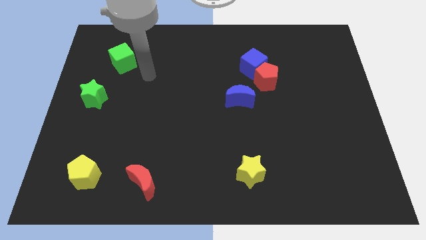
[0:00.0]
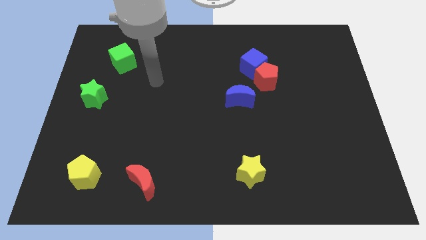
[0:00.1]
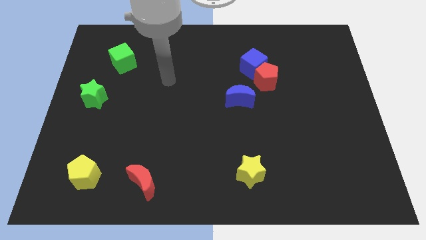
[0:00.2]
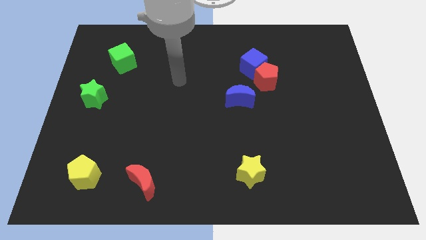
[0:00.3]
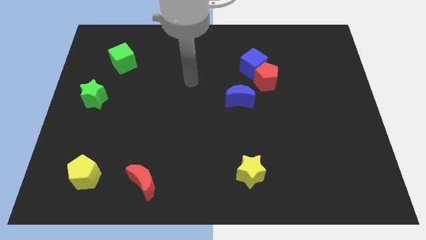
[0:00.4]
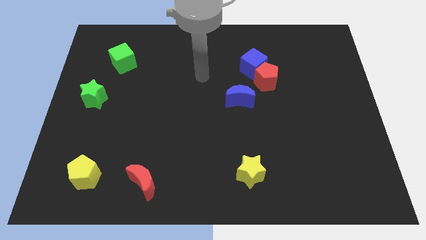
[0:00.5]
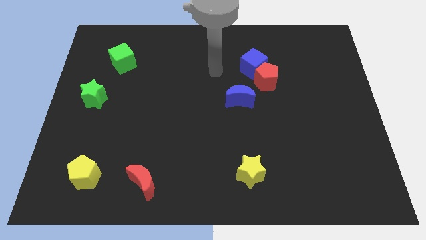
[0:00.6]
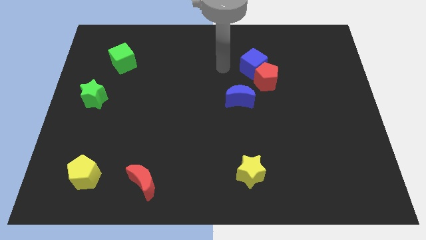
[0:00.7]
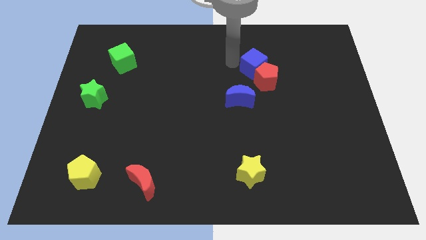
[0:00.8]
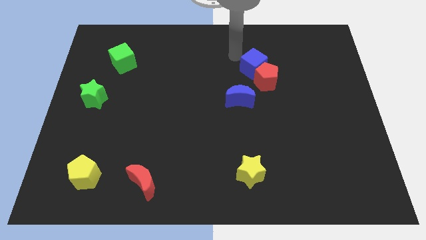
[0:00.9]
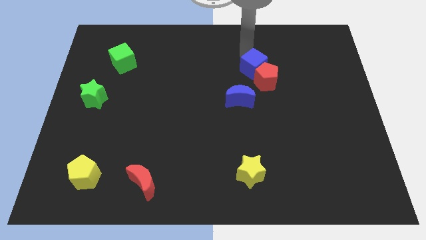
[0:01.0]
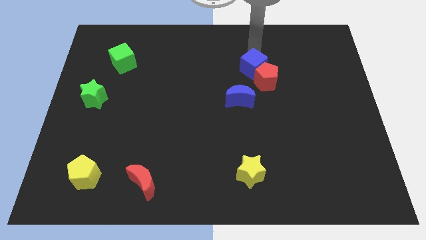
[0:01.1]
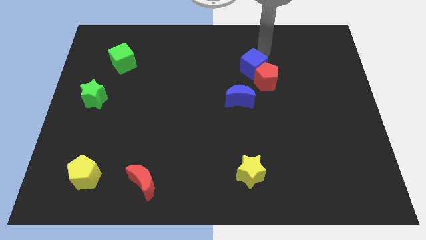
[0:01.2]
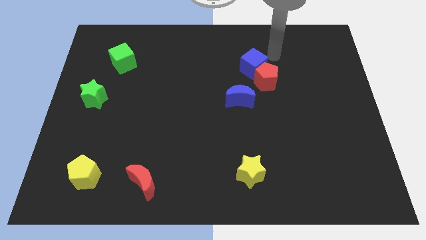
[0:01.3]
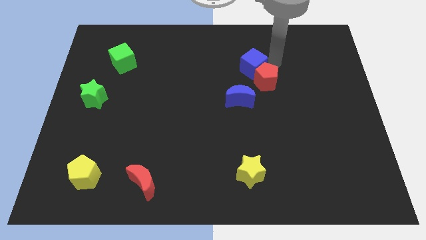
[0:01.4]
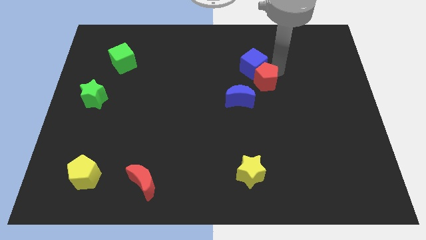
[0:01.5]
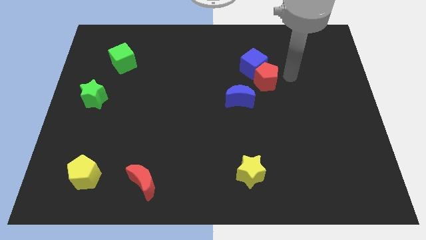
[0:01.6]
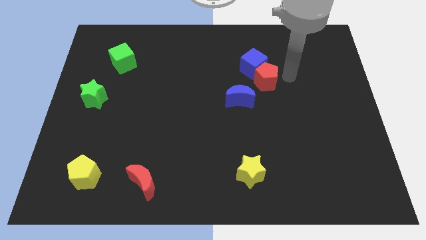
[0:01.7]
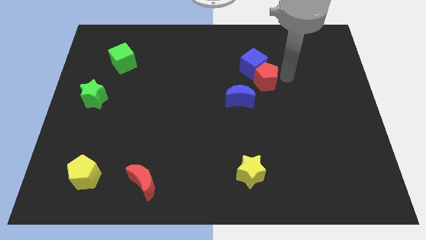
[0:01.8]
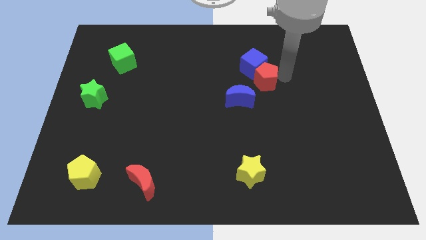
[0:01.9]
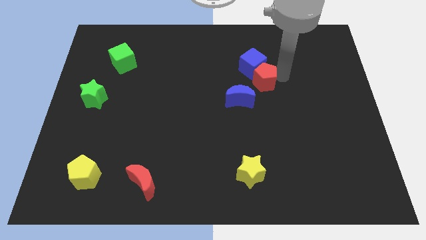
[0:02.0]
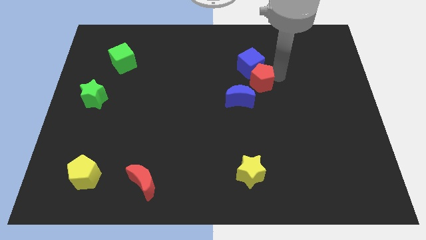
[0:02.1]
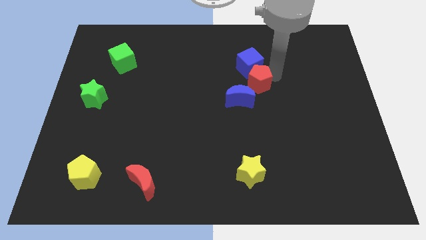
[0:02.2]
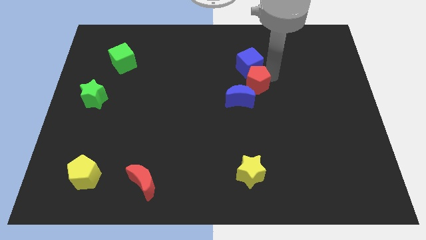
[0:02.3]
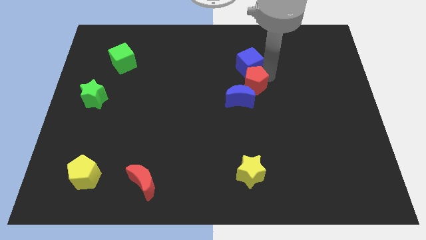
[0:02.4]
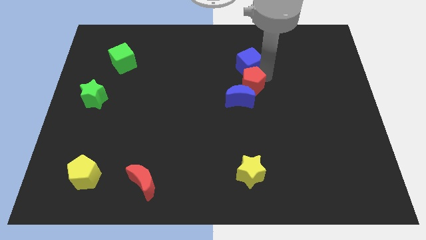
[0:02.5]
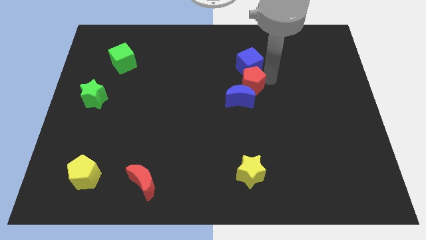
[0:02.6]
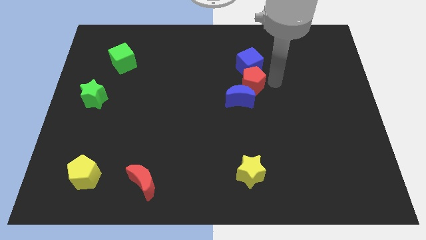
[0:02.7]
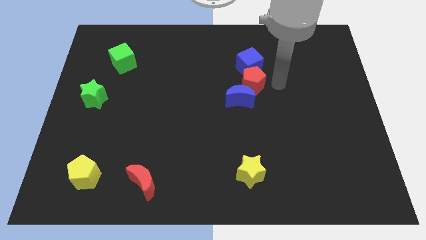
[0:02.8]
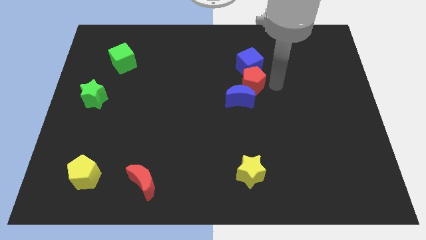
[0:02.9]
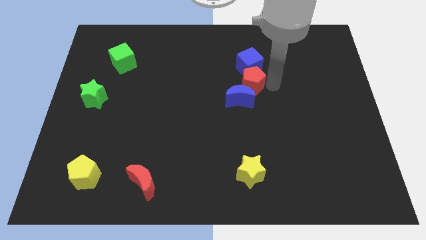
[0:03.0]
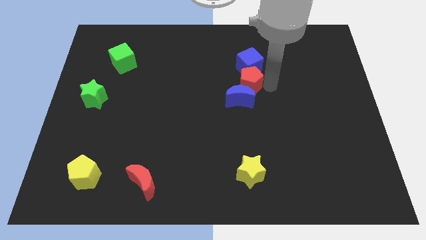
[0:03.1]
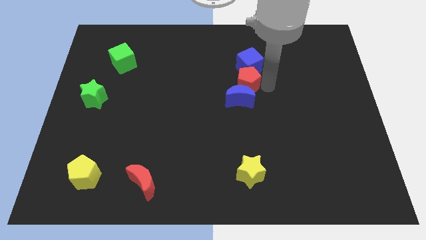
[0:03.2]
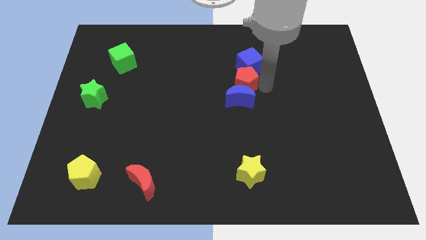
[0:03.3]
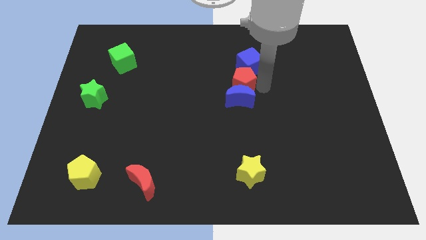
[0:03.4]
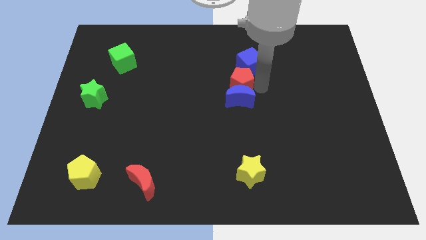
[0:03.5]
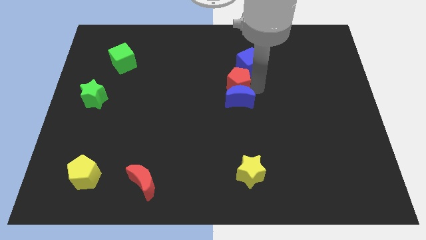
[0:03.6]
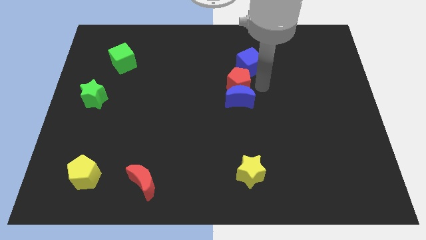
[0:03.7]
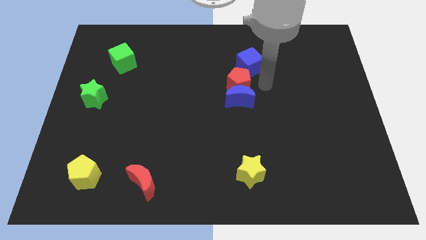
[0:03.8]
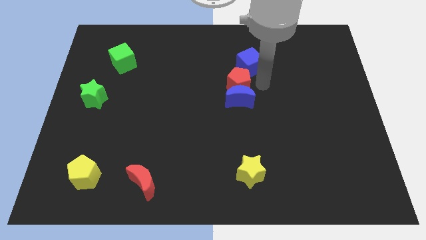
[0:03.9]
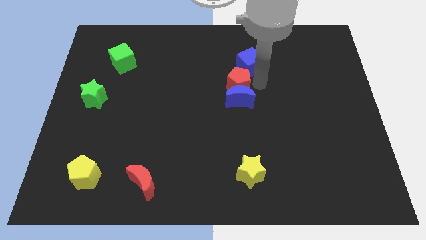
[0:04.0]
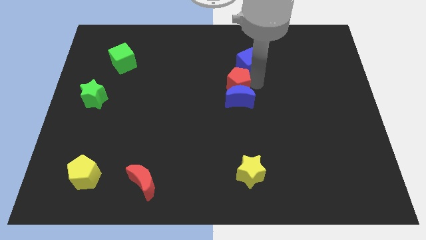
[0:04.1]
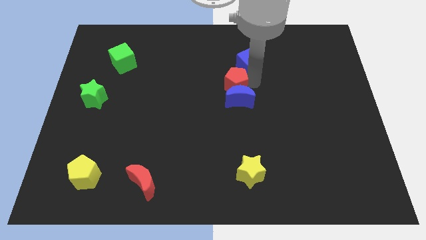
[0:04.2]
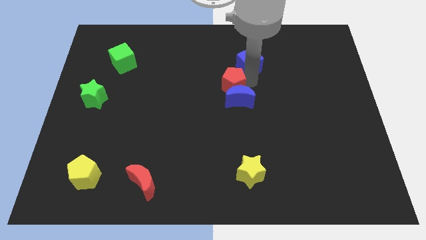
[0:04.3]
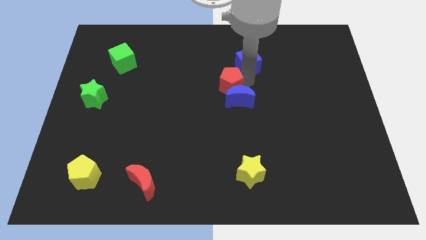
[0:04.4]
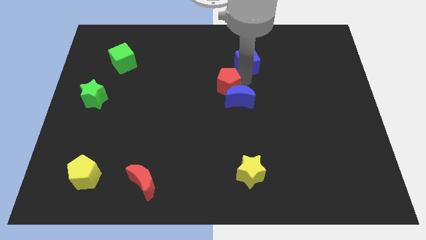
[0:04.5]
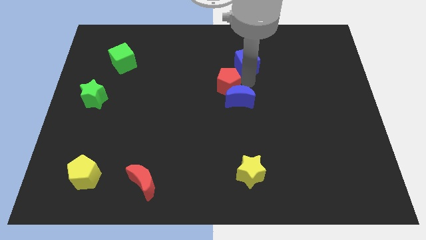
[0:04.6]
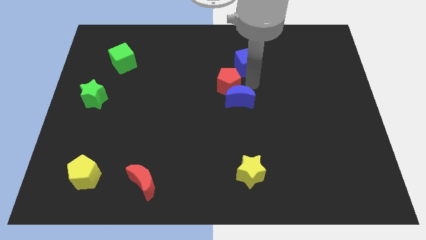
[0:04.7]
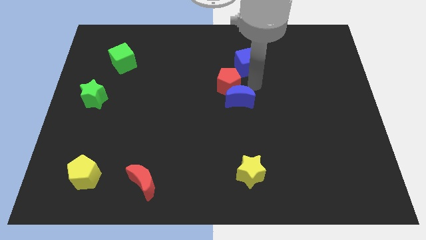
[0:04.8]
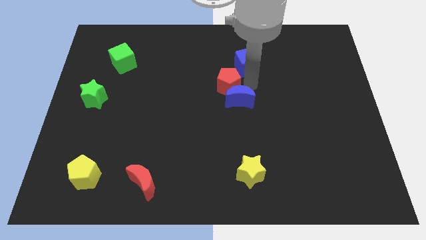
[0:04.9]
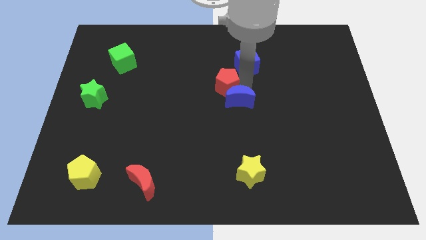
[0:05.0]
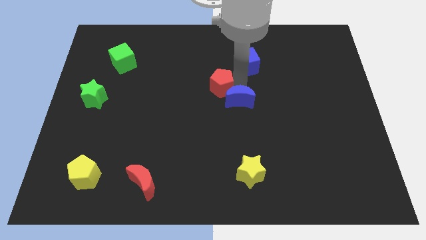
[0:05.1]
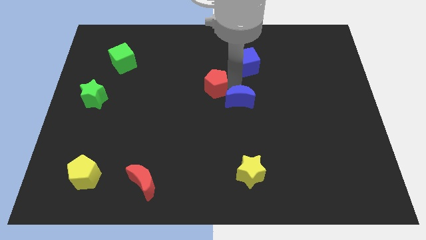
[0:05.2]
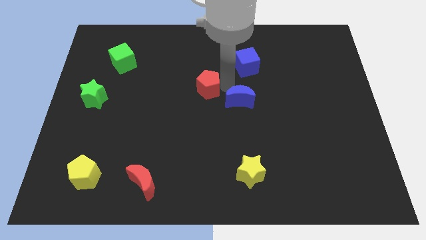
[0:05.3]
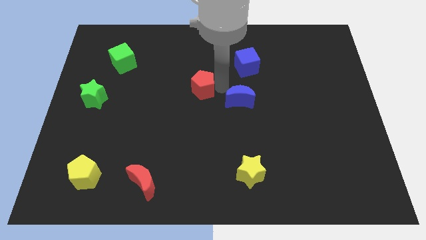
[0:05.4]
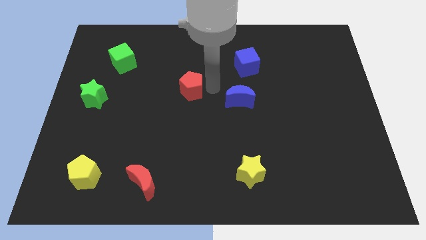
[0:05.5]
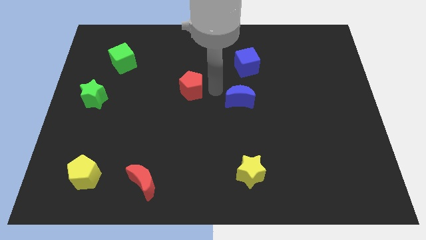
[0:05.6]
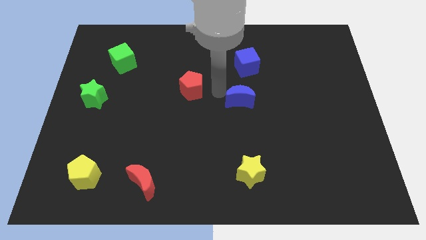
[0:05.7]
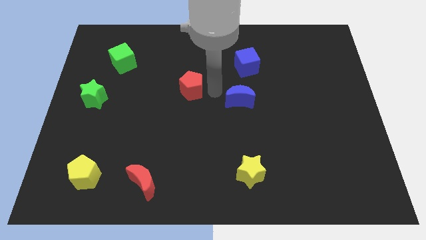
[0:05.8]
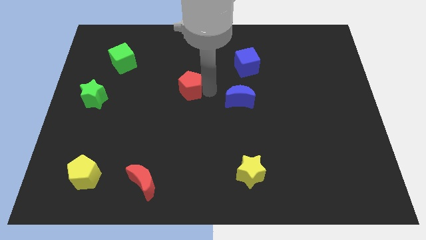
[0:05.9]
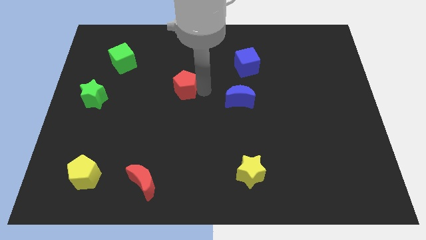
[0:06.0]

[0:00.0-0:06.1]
push the red pentagon to the left

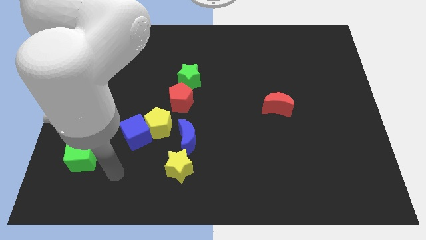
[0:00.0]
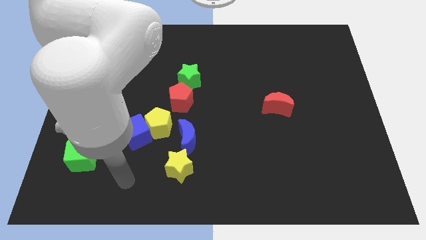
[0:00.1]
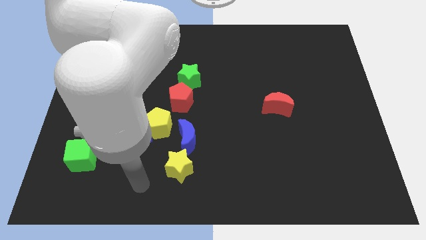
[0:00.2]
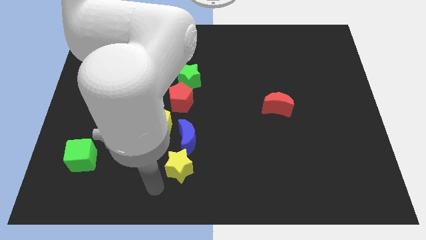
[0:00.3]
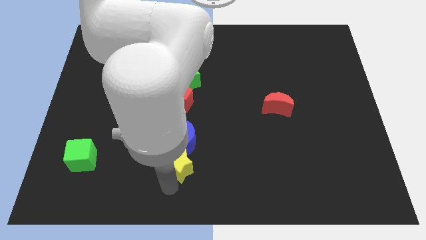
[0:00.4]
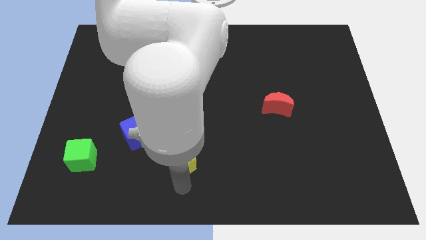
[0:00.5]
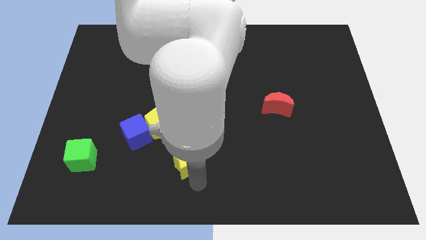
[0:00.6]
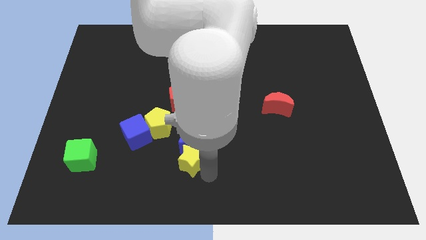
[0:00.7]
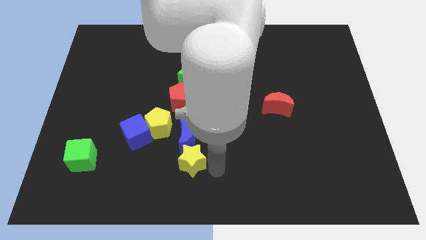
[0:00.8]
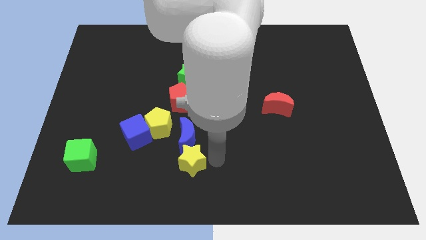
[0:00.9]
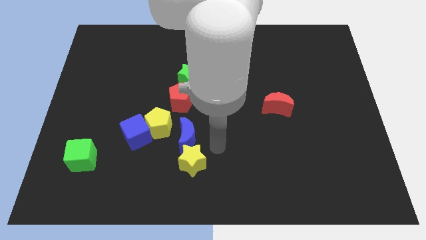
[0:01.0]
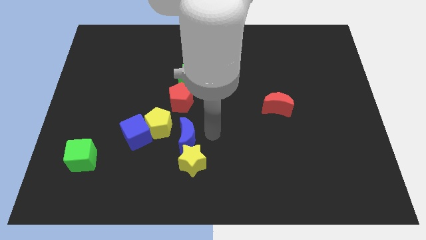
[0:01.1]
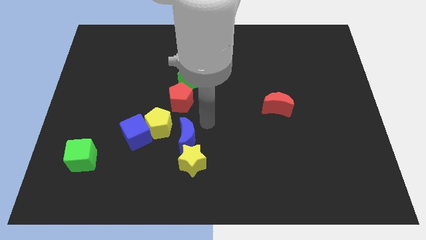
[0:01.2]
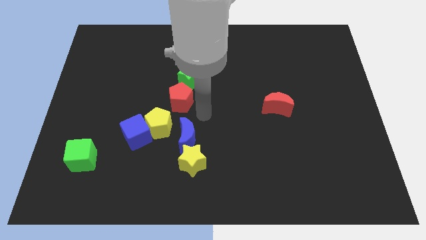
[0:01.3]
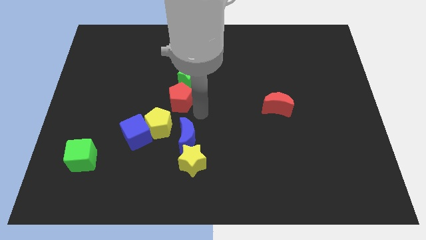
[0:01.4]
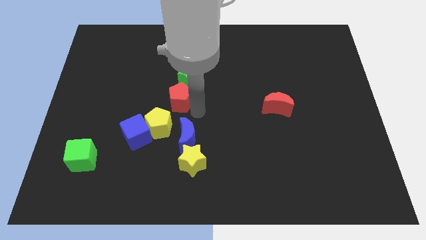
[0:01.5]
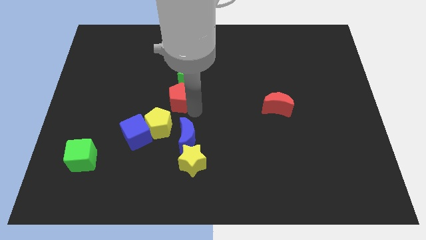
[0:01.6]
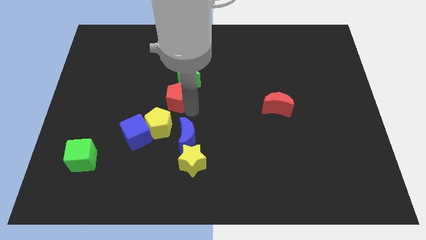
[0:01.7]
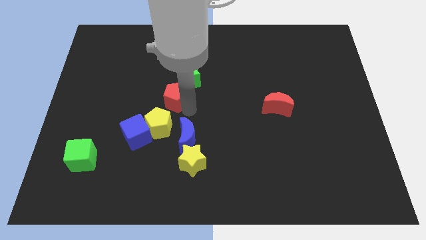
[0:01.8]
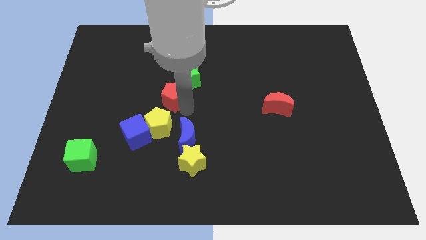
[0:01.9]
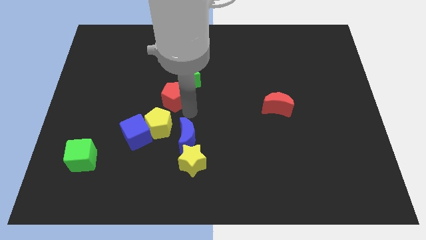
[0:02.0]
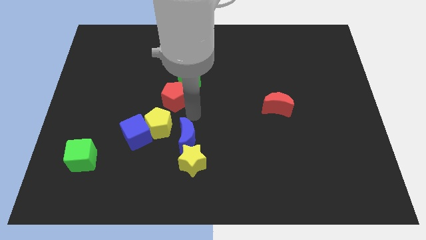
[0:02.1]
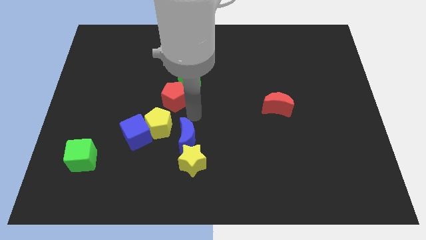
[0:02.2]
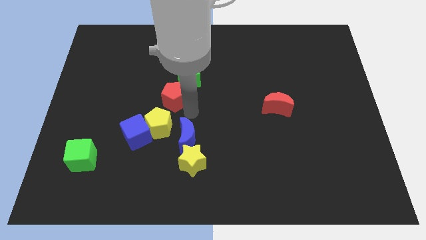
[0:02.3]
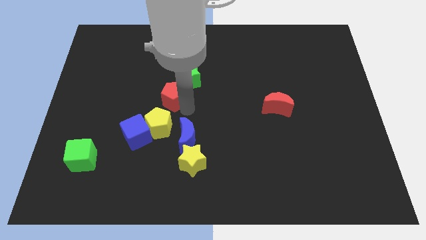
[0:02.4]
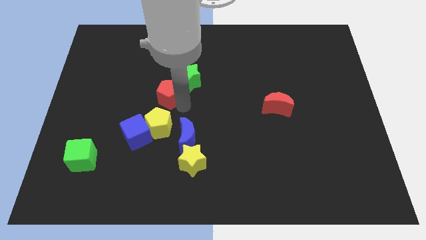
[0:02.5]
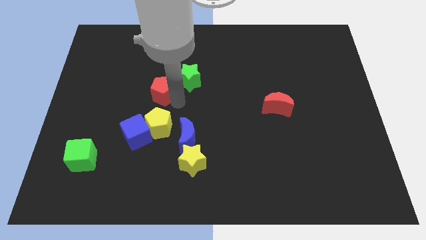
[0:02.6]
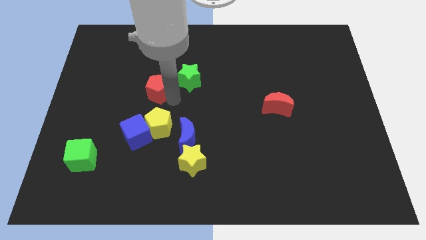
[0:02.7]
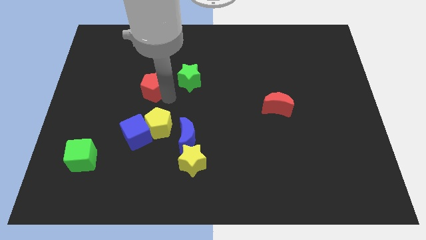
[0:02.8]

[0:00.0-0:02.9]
move the red pentagon a little bit up and then to the left
